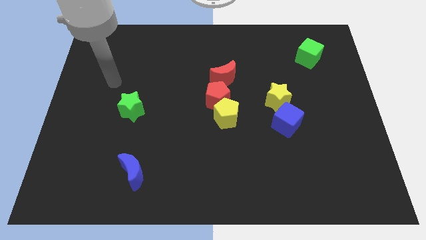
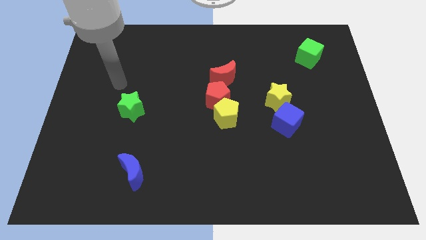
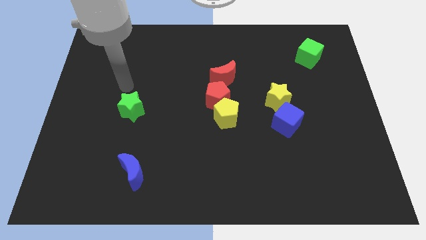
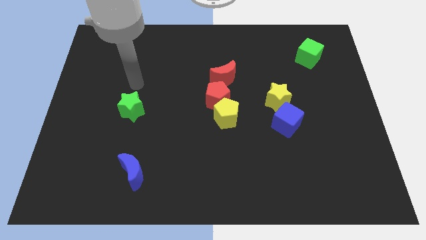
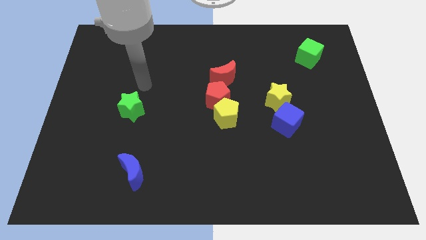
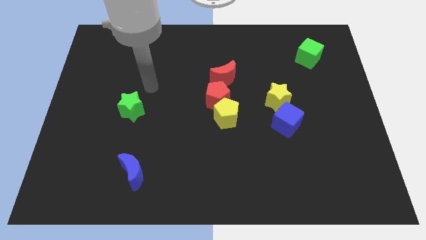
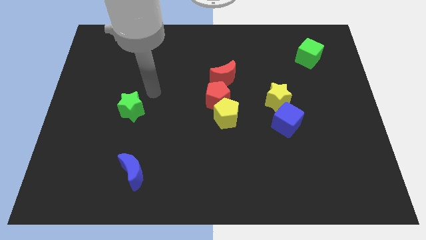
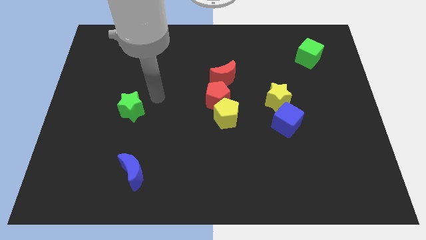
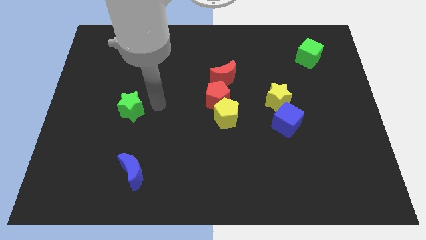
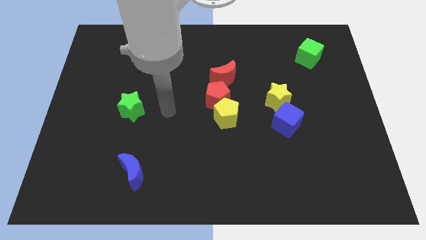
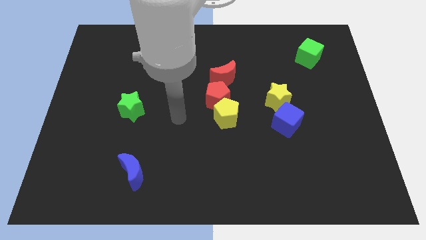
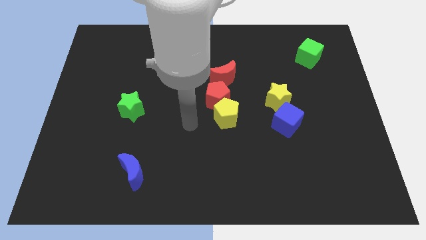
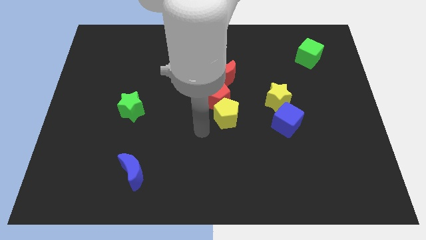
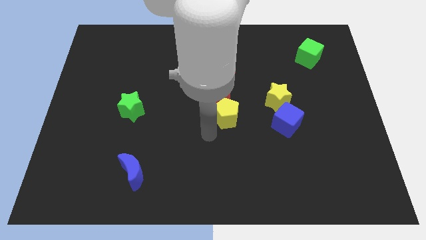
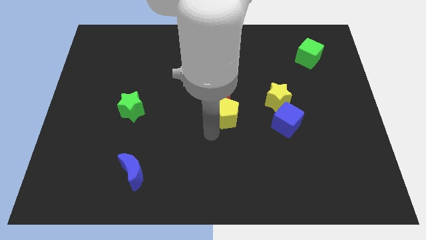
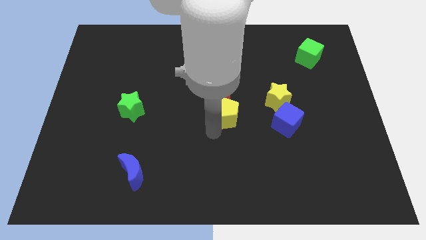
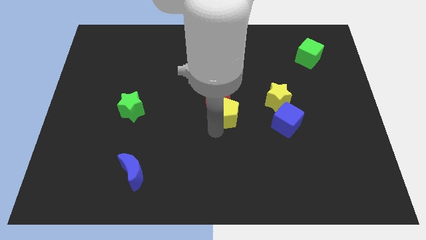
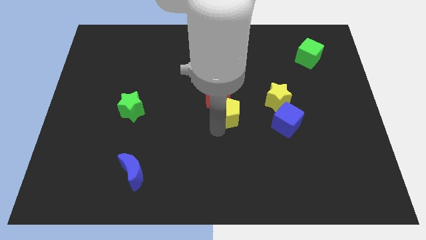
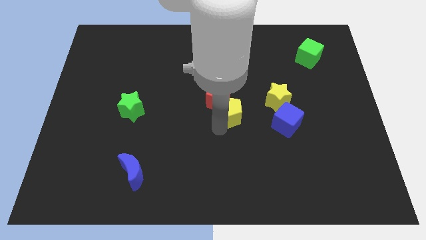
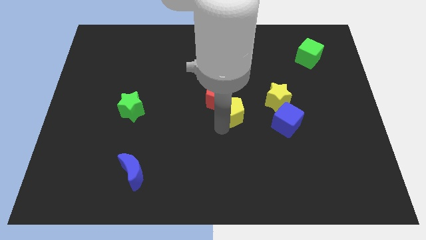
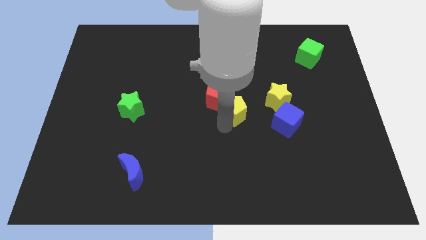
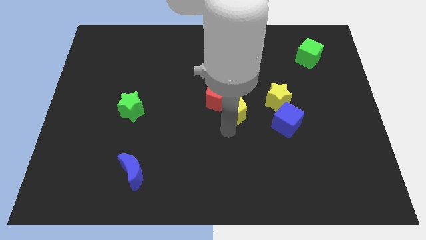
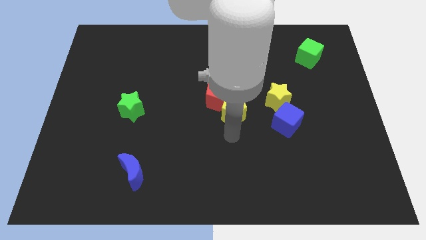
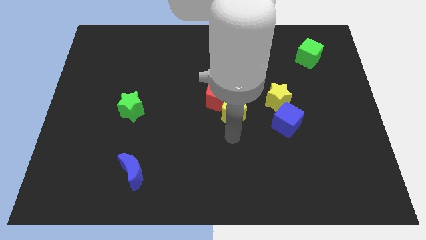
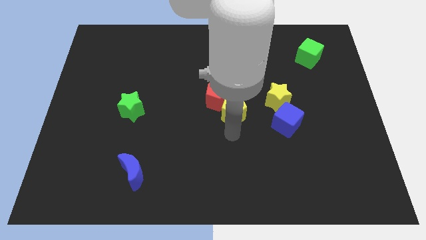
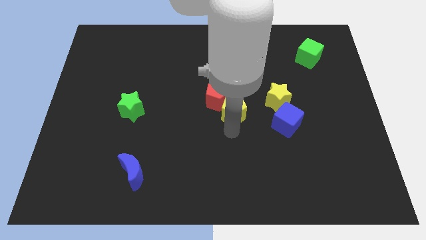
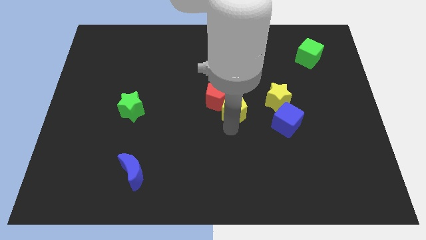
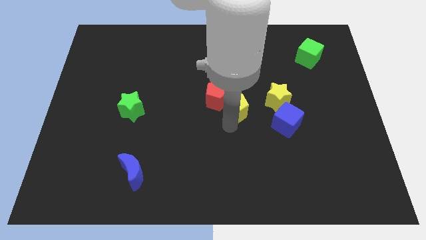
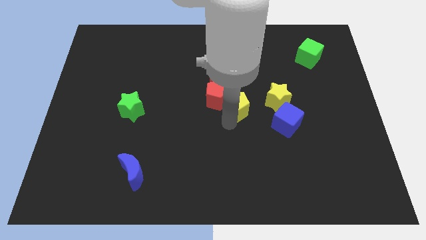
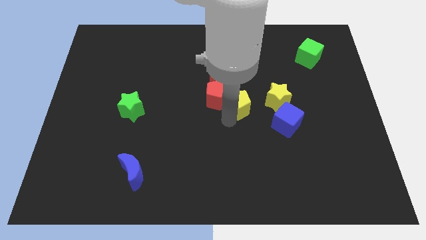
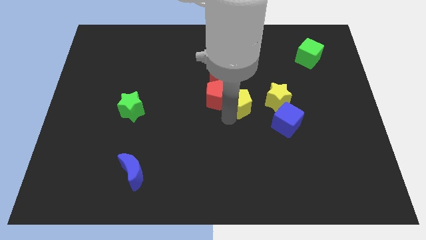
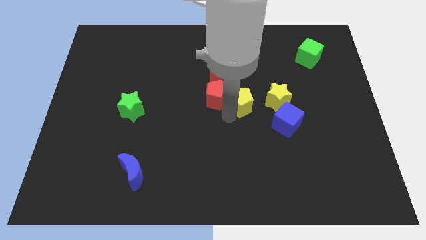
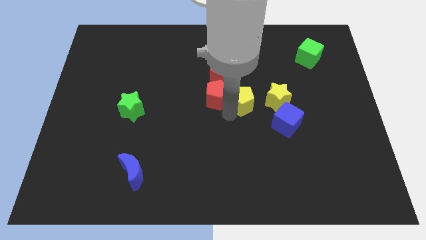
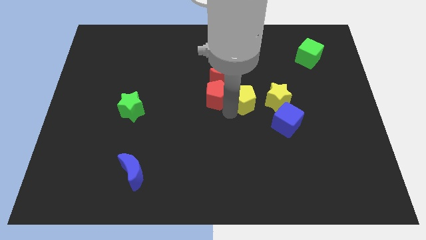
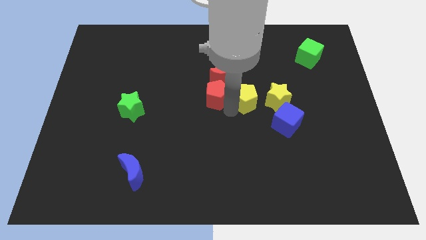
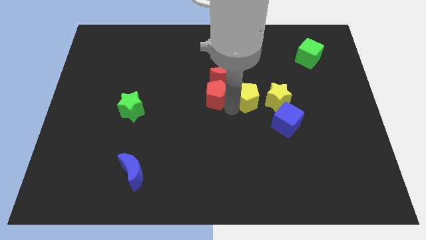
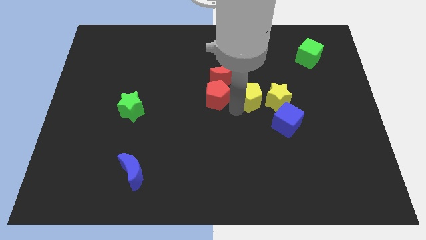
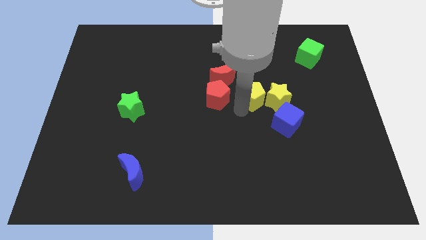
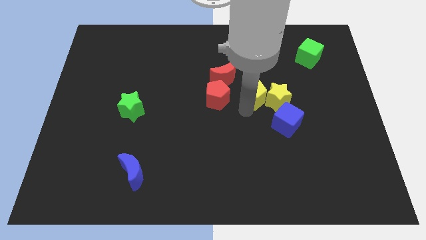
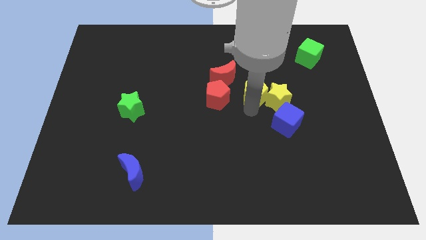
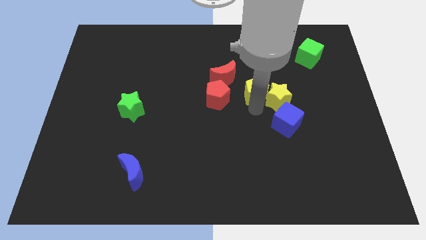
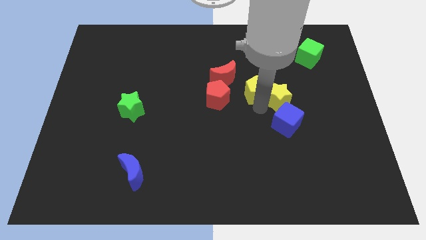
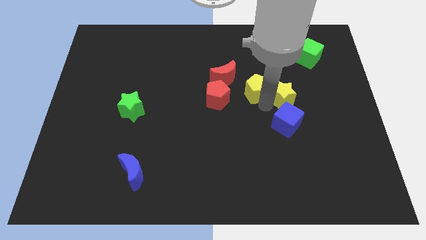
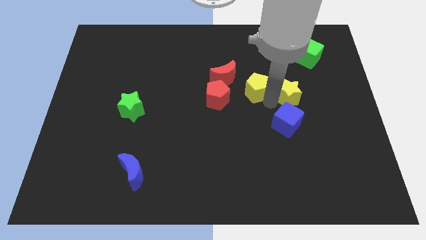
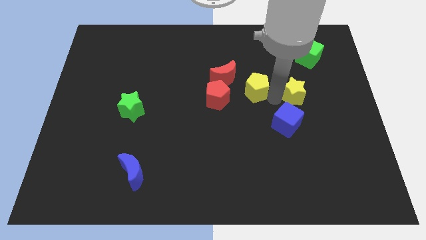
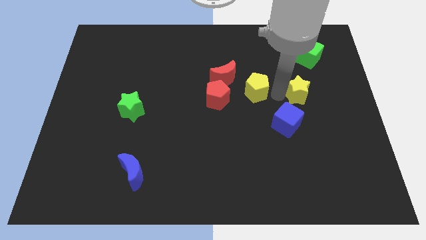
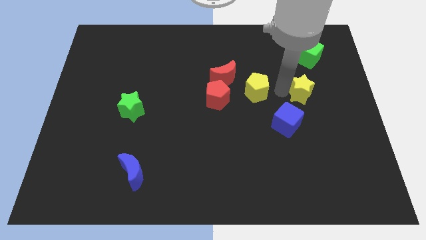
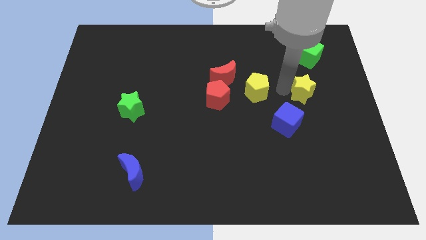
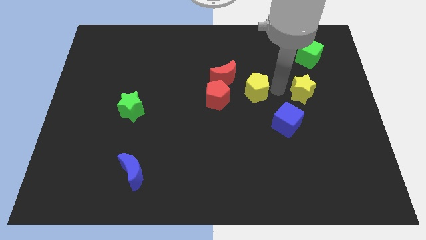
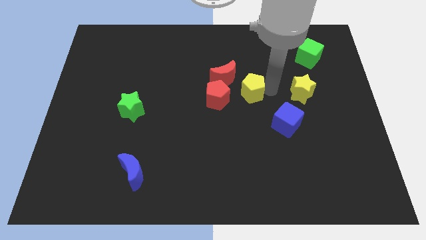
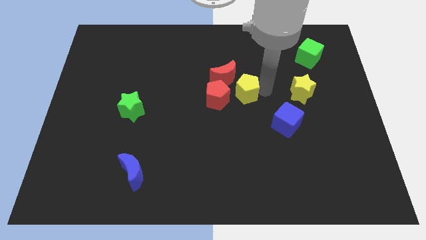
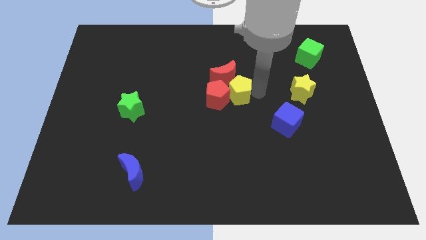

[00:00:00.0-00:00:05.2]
slide the yellow pentagon towards the red moon

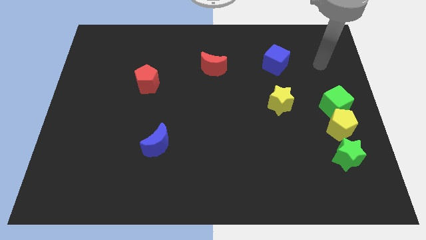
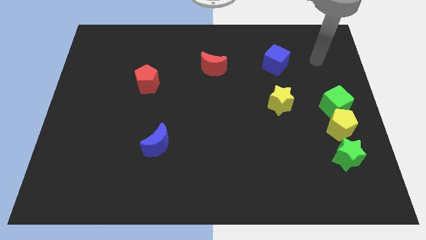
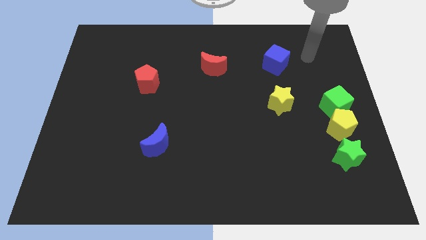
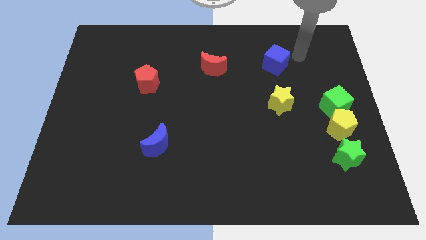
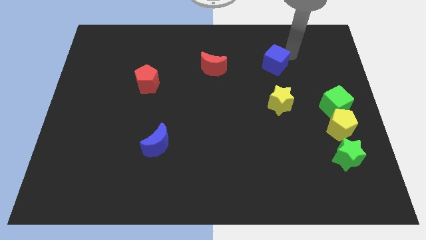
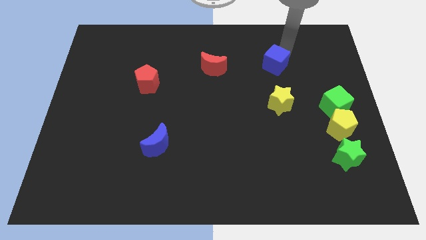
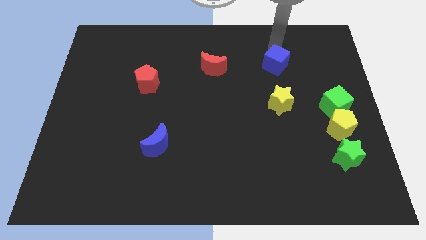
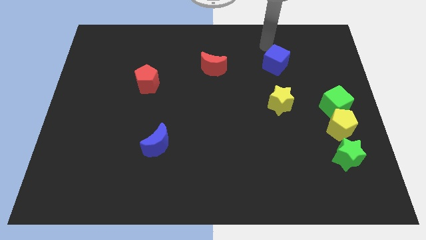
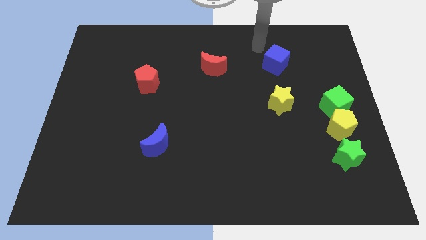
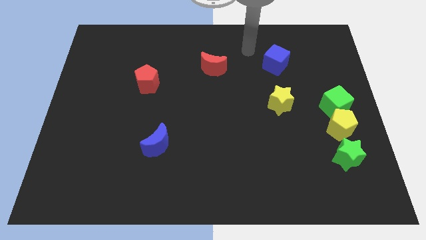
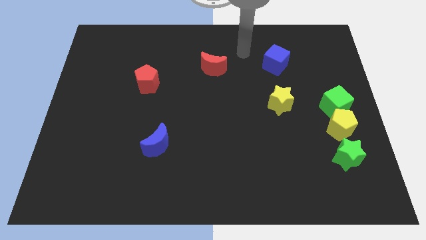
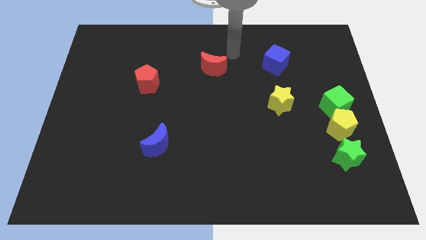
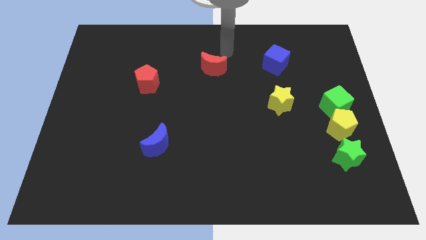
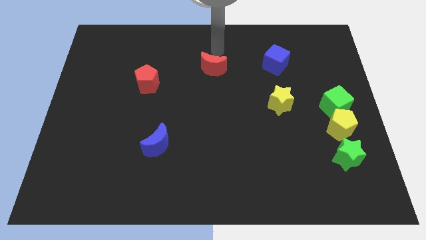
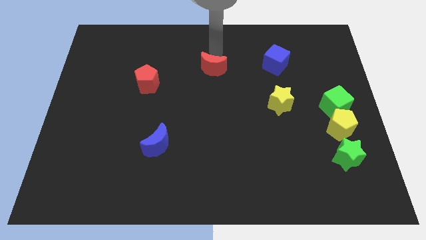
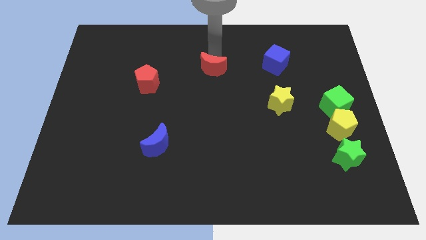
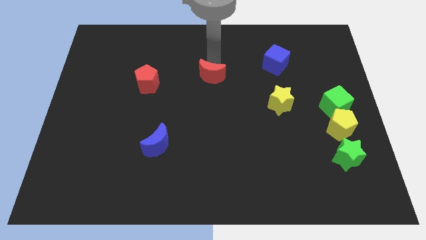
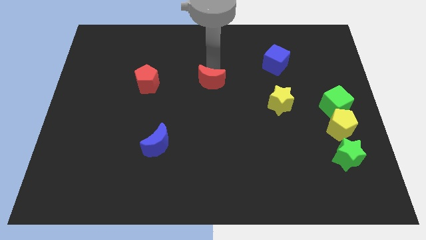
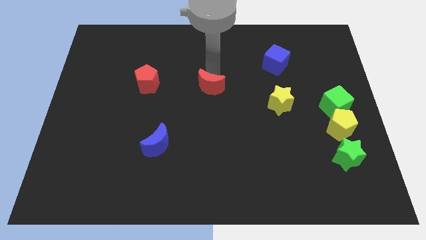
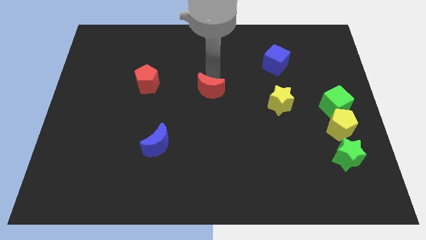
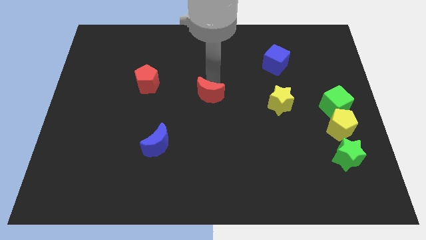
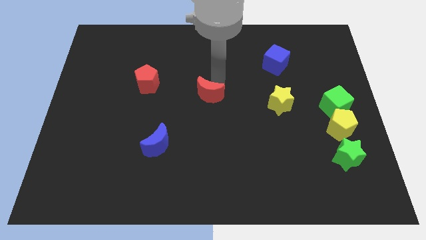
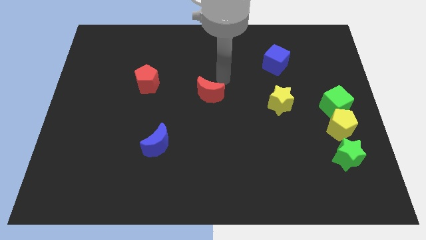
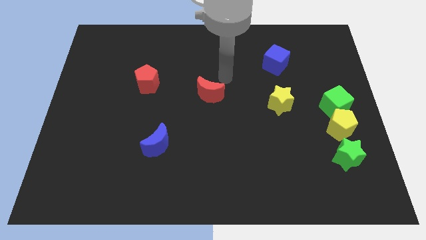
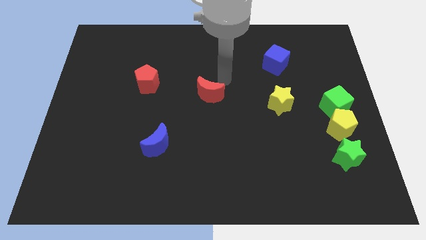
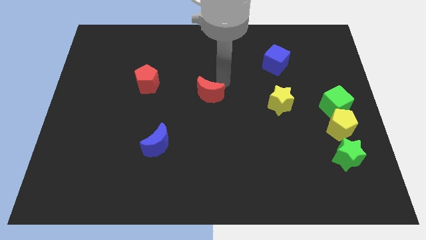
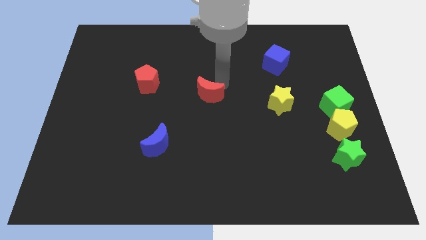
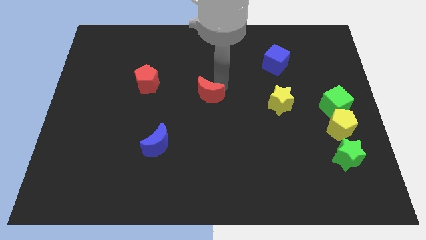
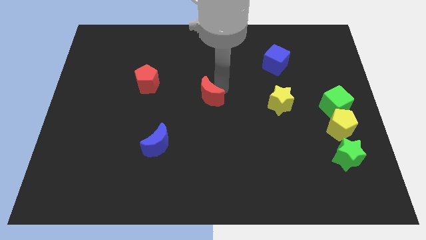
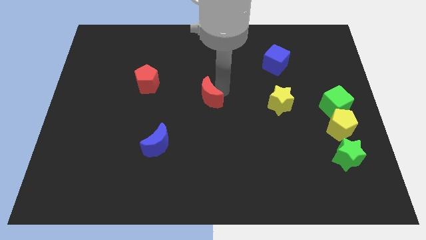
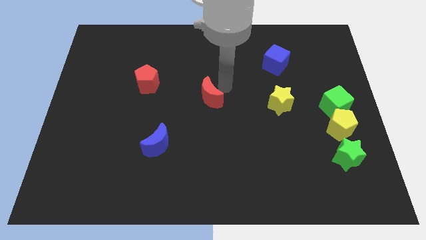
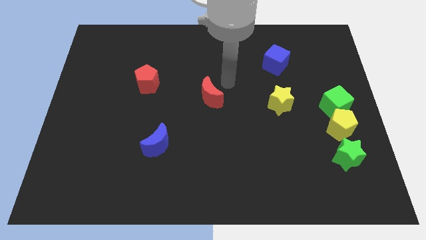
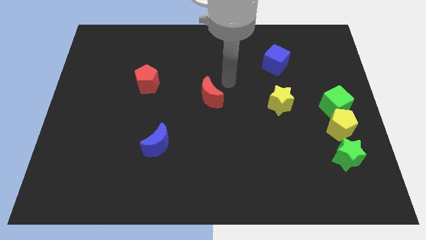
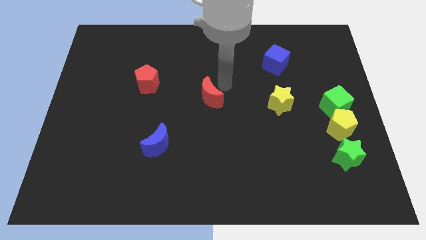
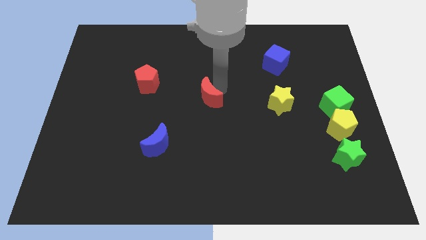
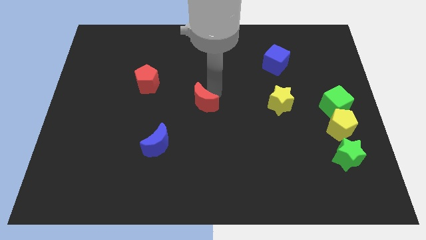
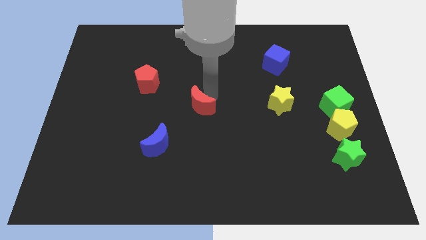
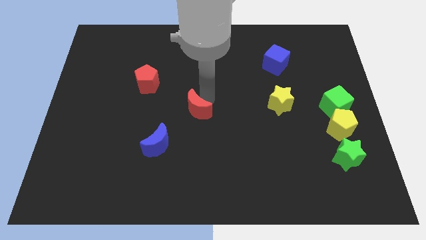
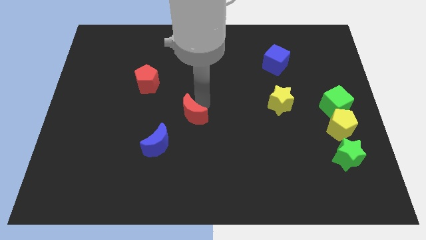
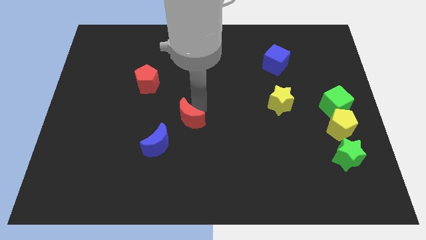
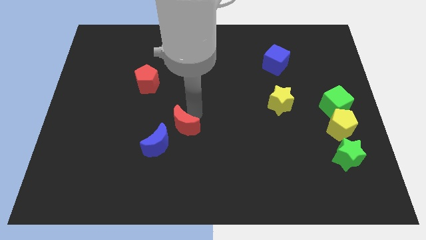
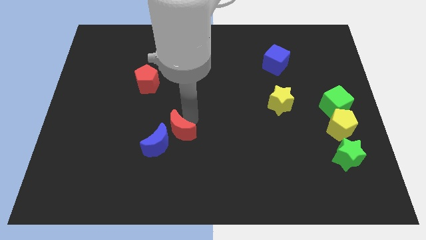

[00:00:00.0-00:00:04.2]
push the red moon next to the blue moon
